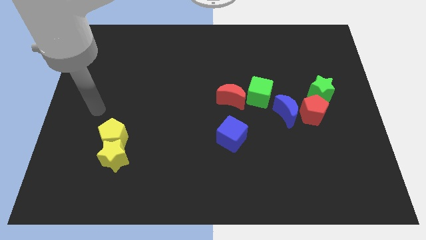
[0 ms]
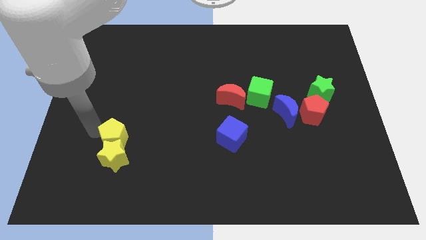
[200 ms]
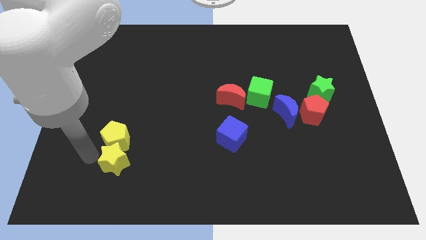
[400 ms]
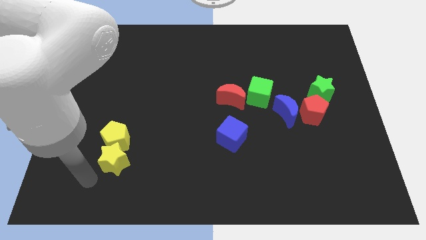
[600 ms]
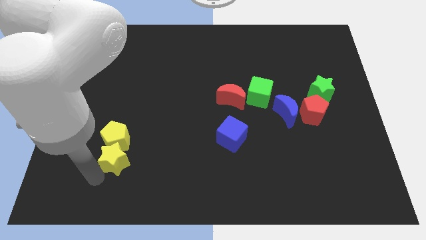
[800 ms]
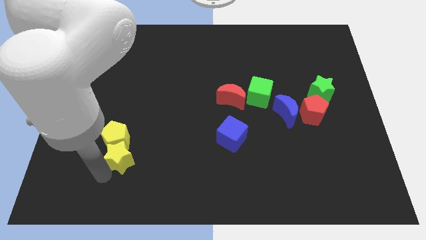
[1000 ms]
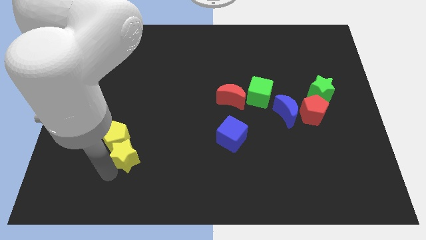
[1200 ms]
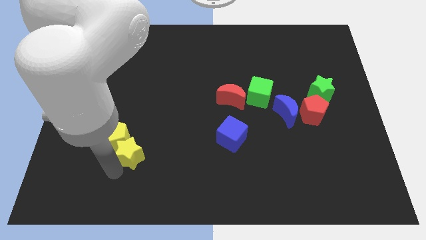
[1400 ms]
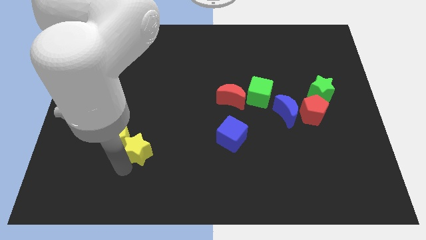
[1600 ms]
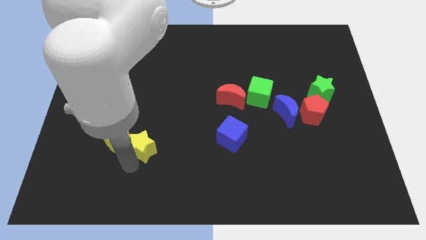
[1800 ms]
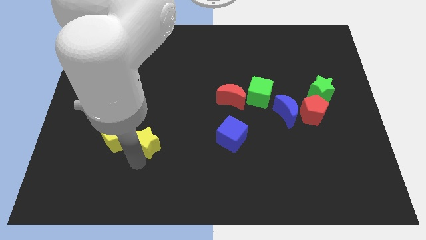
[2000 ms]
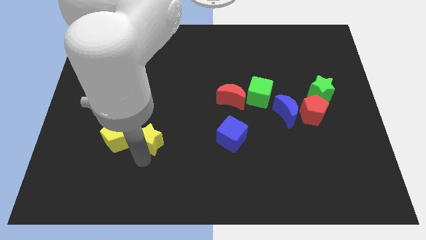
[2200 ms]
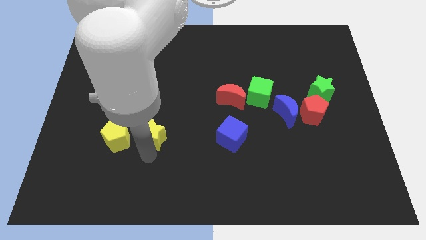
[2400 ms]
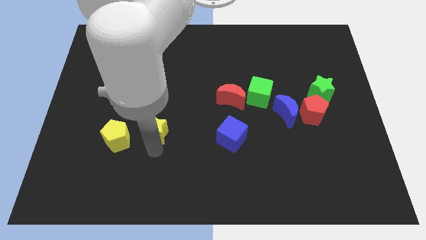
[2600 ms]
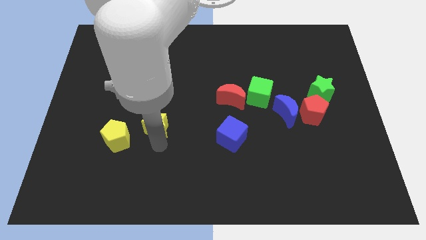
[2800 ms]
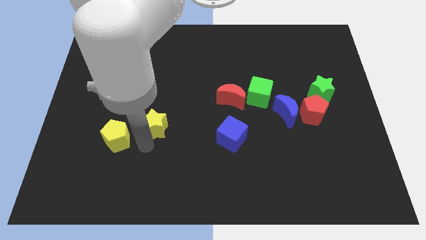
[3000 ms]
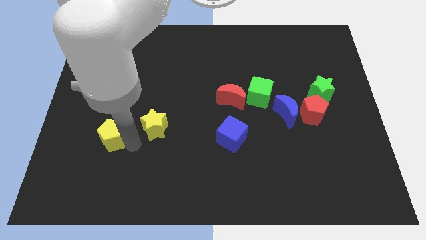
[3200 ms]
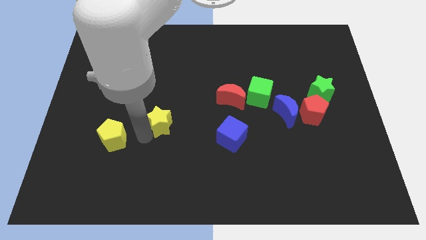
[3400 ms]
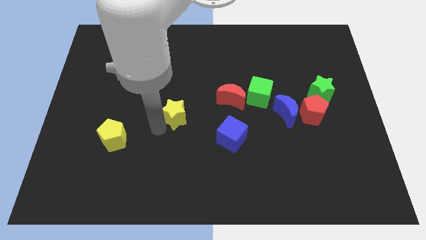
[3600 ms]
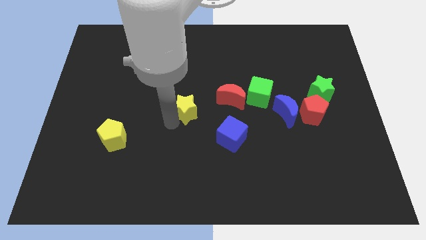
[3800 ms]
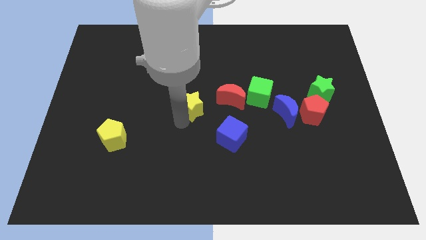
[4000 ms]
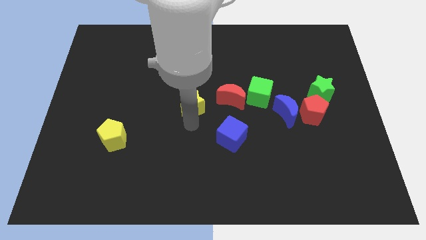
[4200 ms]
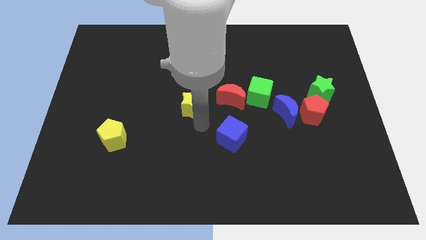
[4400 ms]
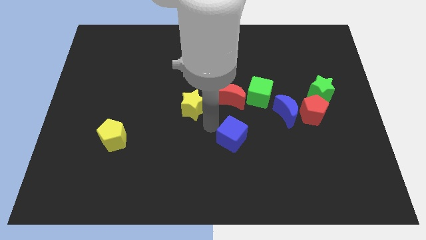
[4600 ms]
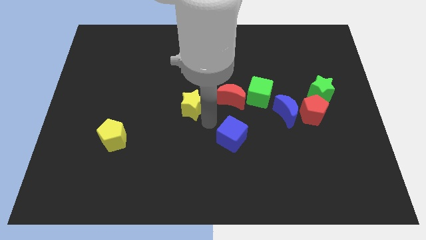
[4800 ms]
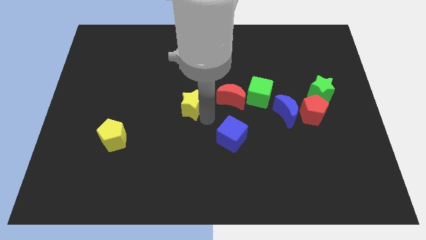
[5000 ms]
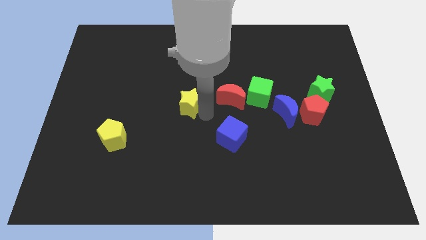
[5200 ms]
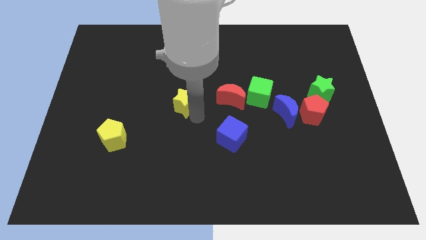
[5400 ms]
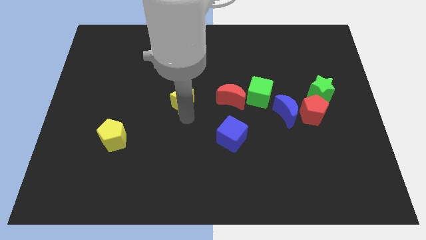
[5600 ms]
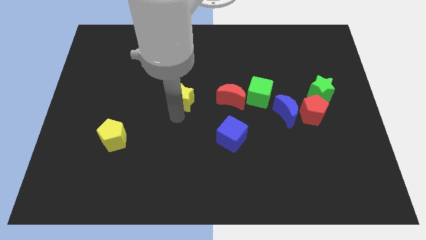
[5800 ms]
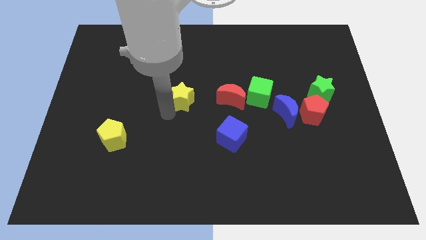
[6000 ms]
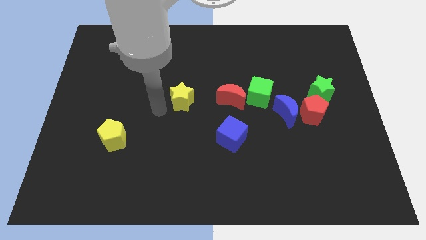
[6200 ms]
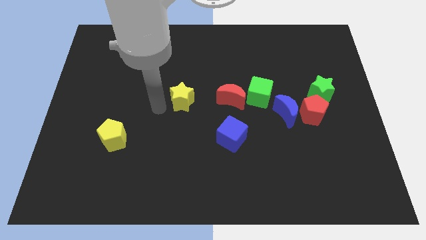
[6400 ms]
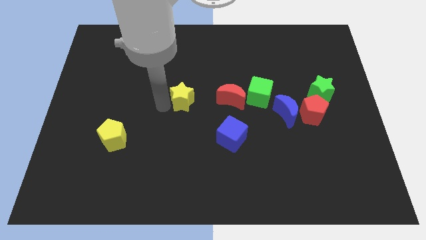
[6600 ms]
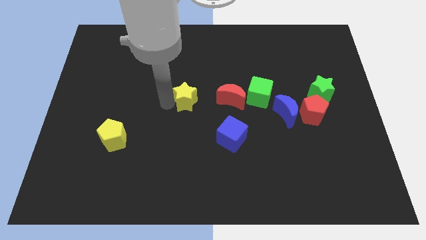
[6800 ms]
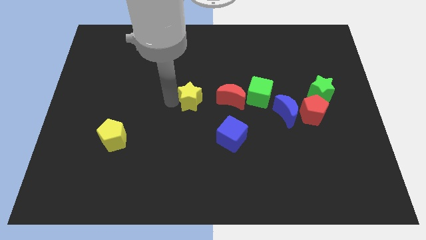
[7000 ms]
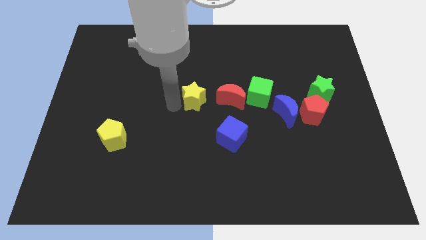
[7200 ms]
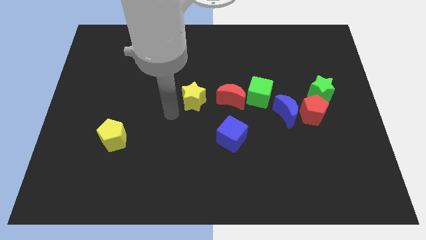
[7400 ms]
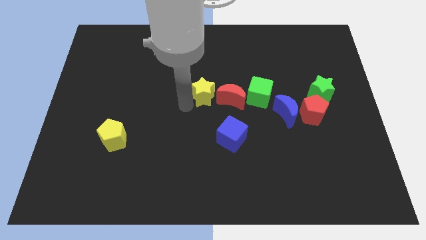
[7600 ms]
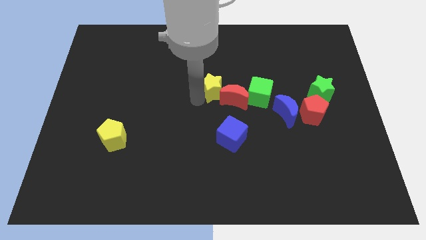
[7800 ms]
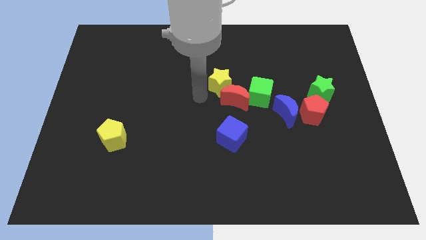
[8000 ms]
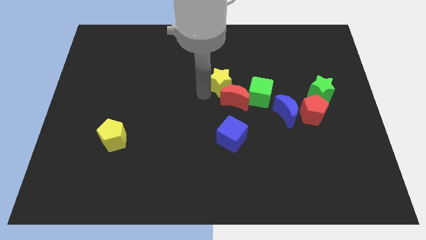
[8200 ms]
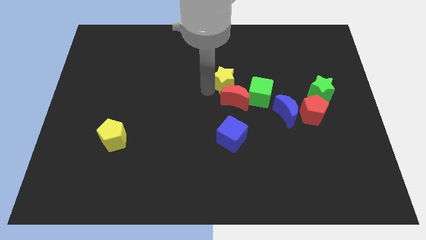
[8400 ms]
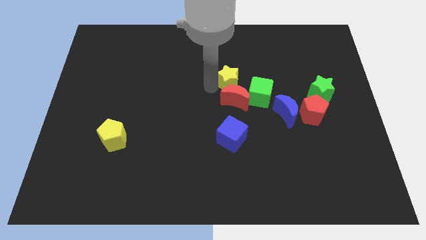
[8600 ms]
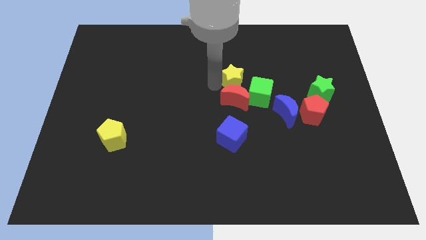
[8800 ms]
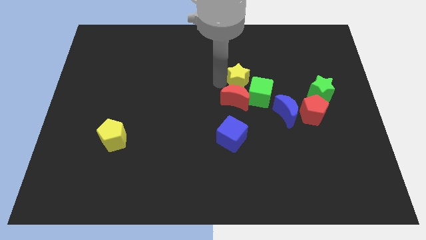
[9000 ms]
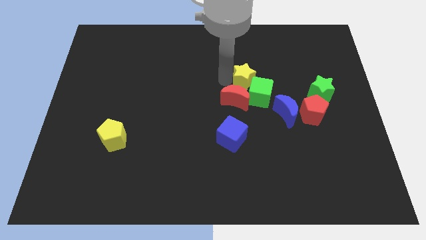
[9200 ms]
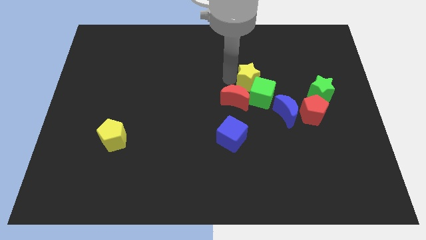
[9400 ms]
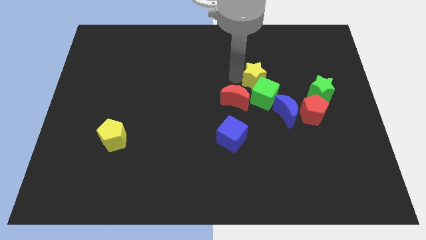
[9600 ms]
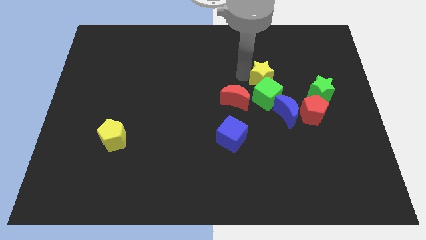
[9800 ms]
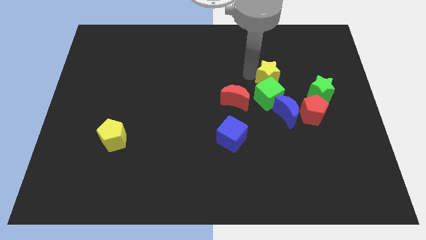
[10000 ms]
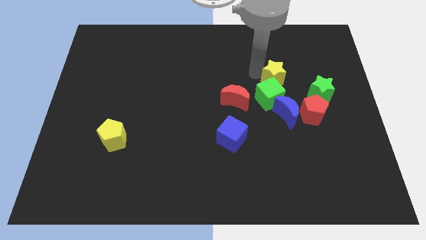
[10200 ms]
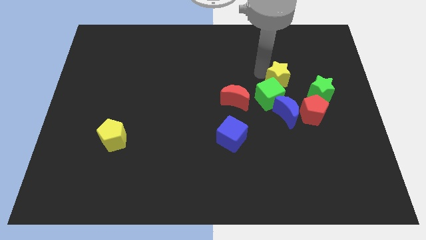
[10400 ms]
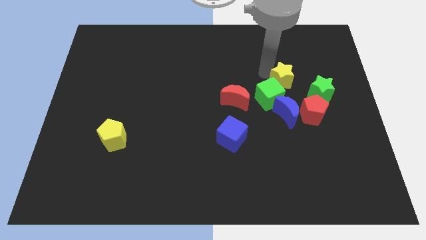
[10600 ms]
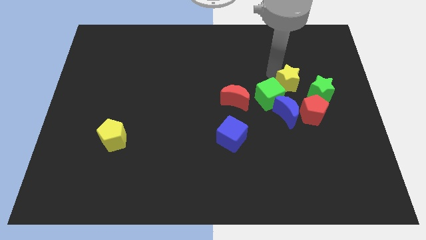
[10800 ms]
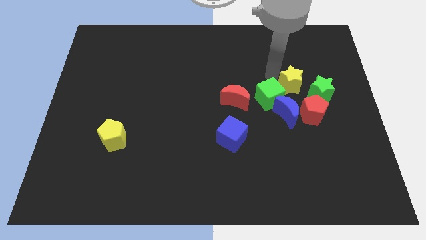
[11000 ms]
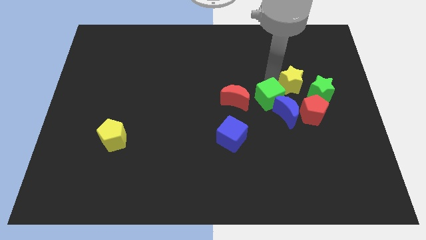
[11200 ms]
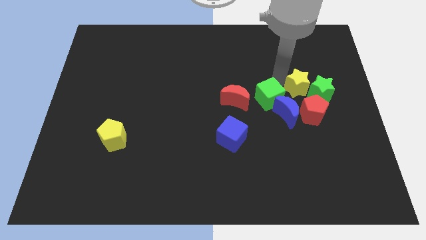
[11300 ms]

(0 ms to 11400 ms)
slide the yellow star towards the green star

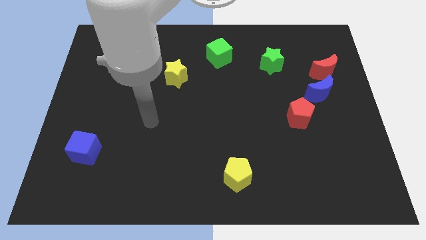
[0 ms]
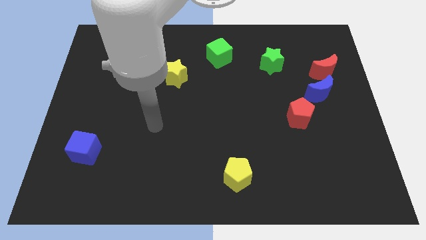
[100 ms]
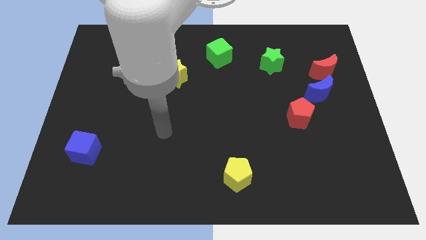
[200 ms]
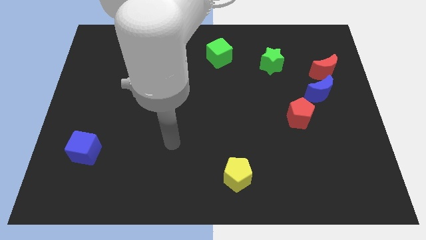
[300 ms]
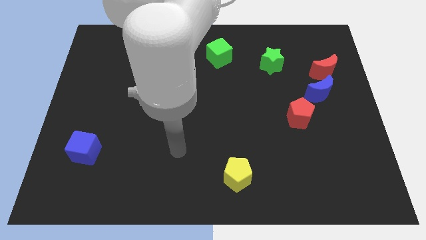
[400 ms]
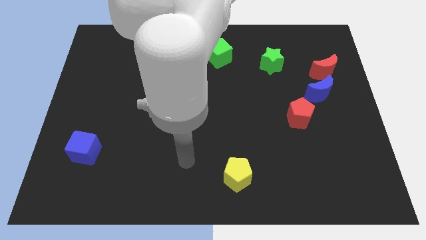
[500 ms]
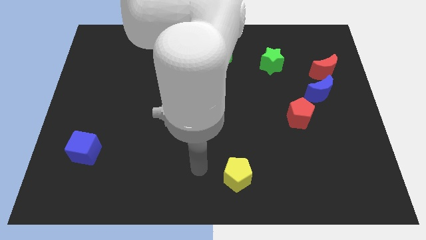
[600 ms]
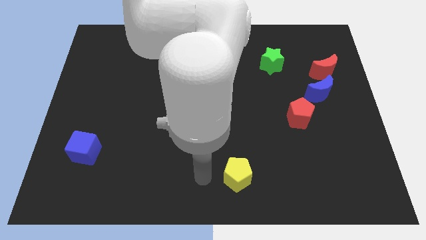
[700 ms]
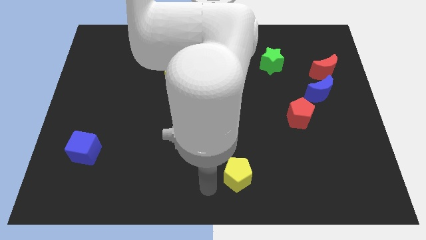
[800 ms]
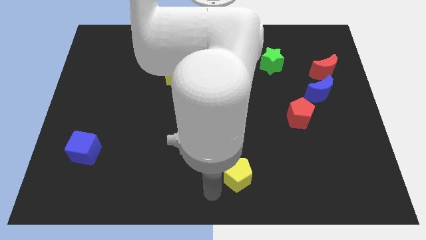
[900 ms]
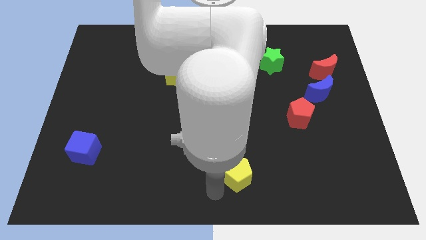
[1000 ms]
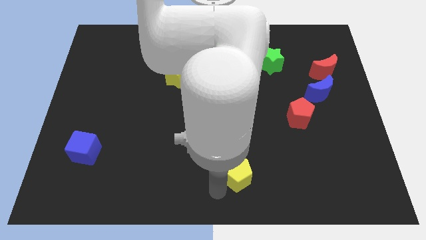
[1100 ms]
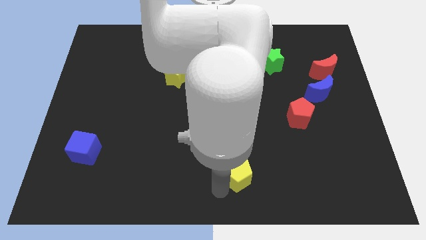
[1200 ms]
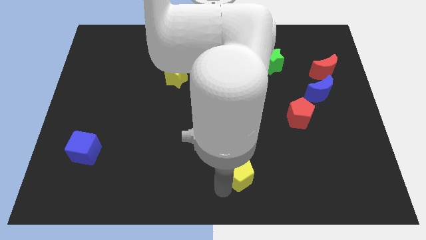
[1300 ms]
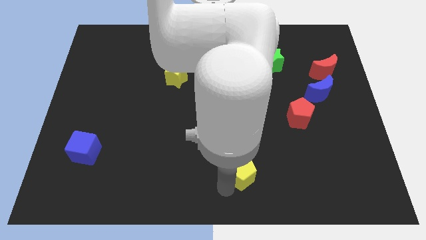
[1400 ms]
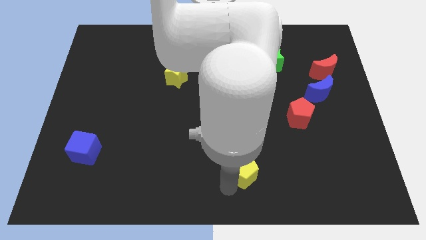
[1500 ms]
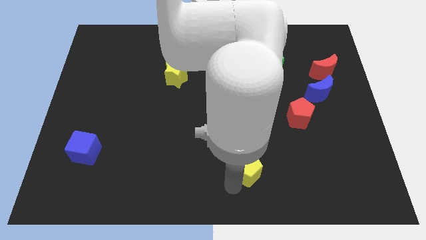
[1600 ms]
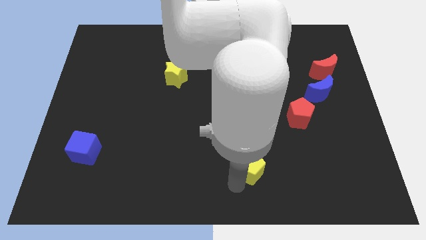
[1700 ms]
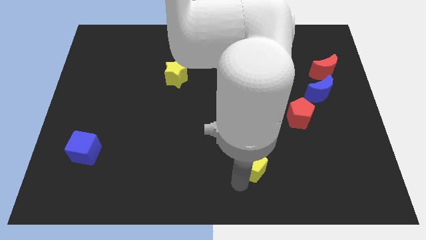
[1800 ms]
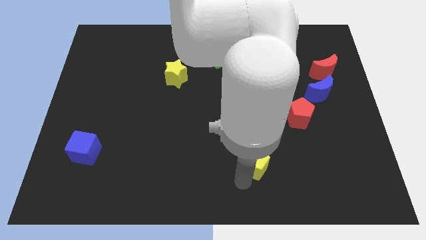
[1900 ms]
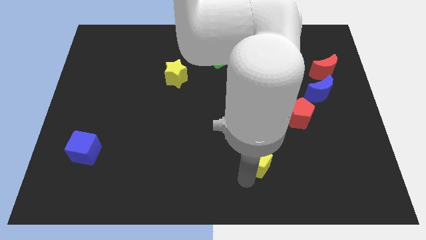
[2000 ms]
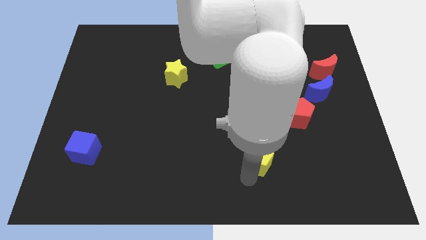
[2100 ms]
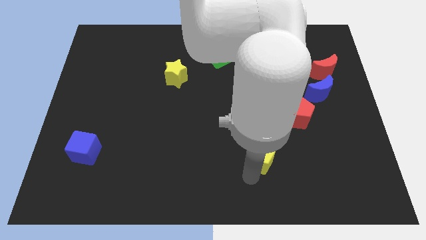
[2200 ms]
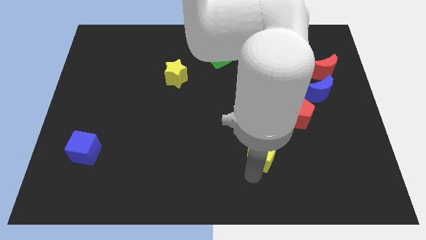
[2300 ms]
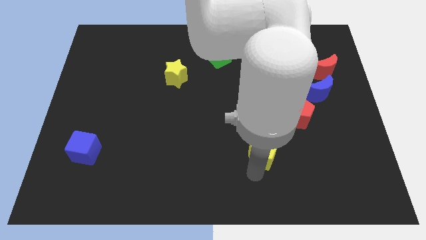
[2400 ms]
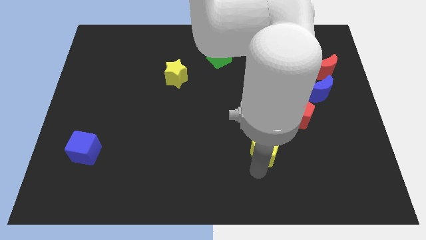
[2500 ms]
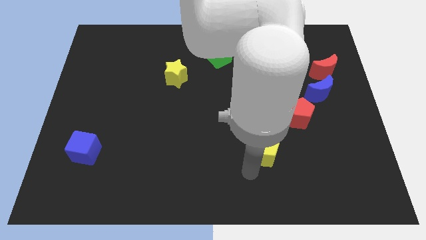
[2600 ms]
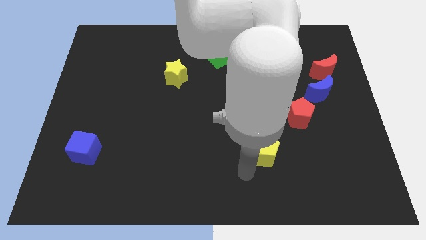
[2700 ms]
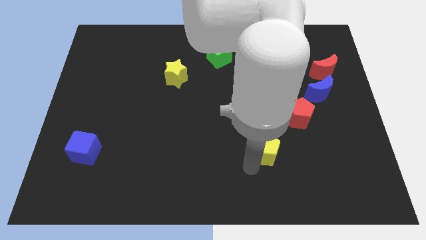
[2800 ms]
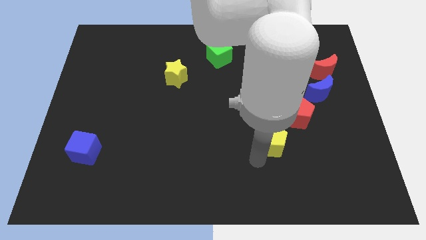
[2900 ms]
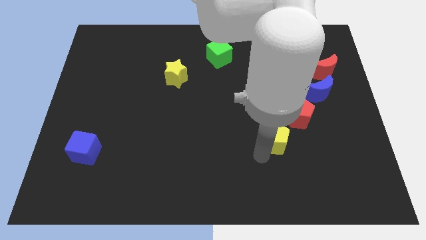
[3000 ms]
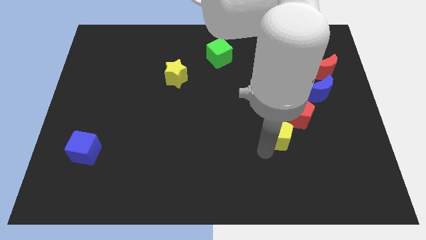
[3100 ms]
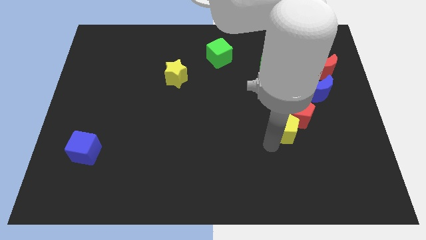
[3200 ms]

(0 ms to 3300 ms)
move the yellow pentagon close to the red pentagon
